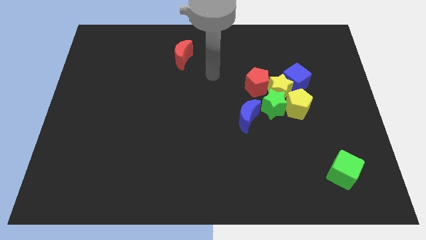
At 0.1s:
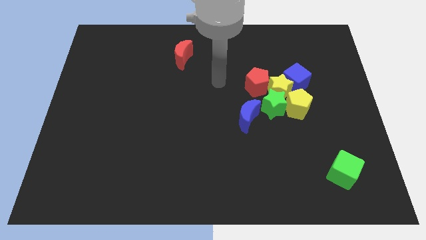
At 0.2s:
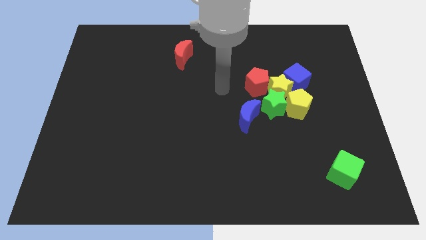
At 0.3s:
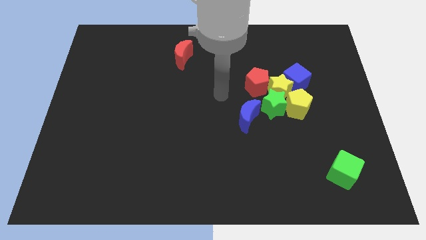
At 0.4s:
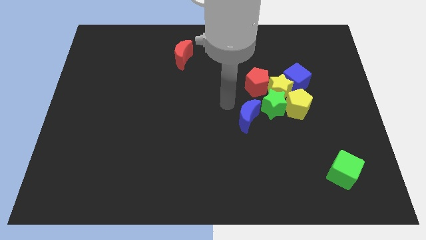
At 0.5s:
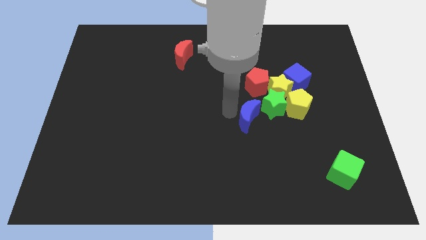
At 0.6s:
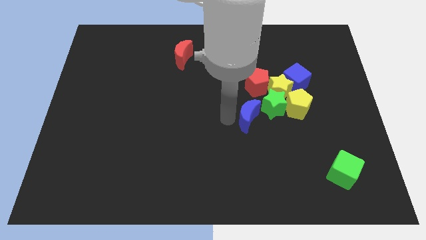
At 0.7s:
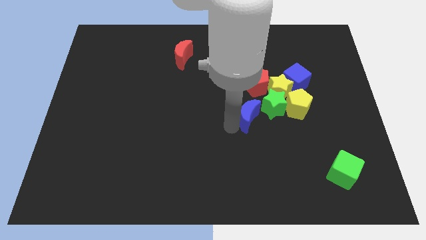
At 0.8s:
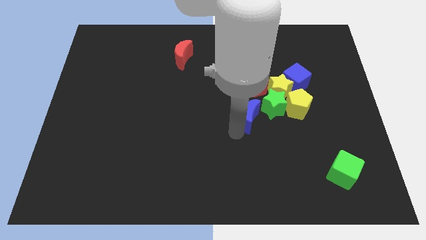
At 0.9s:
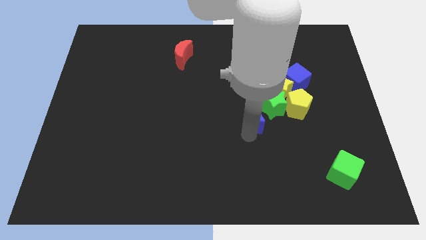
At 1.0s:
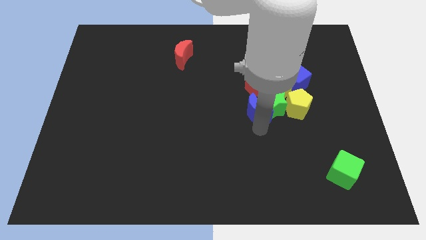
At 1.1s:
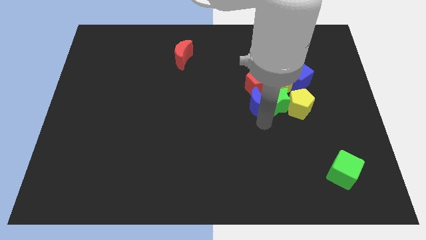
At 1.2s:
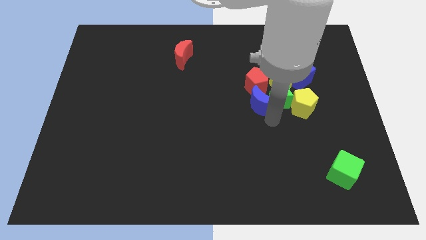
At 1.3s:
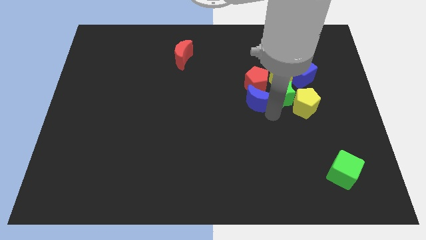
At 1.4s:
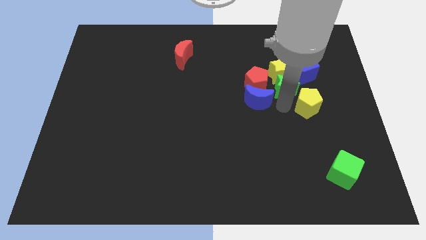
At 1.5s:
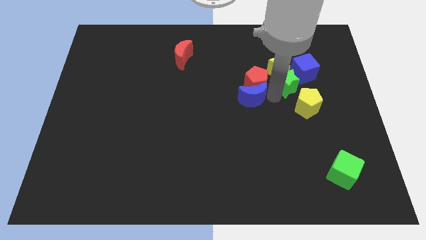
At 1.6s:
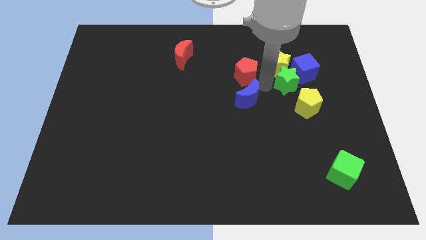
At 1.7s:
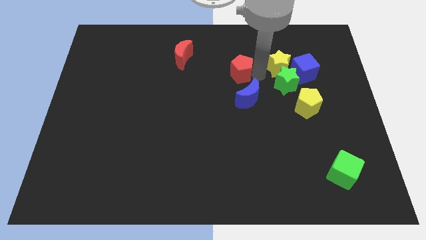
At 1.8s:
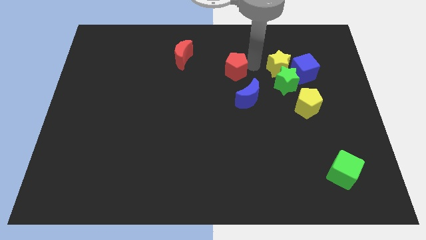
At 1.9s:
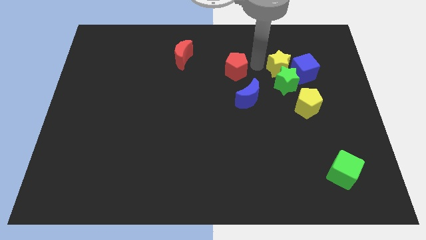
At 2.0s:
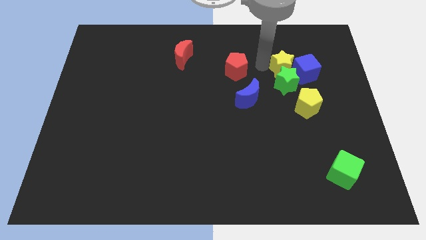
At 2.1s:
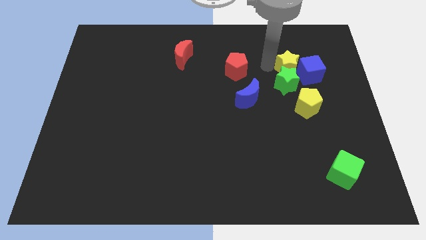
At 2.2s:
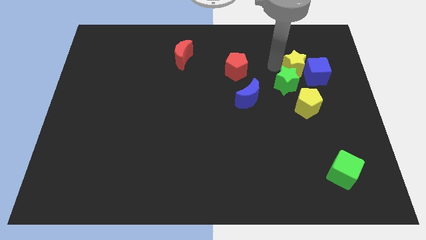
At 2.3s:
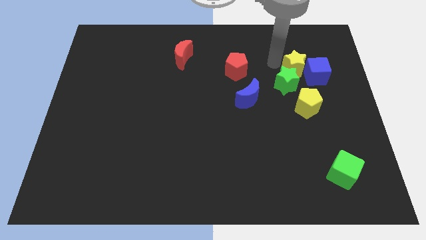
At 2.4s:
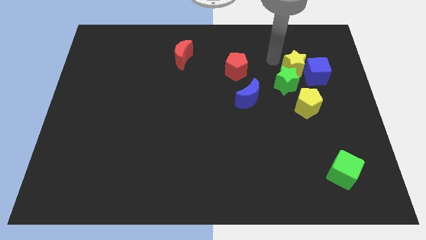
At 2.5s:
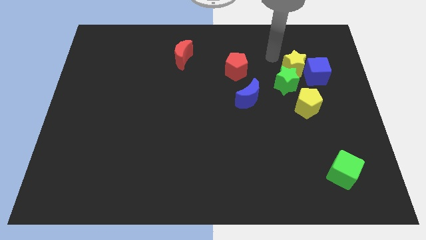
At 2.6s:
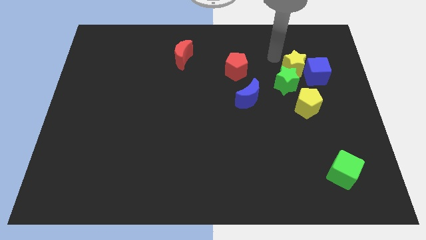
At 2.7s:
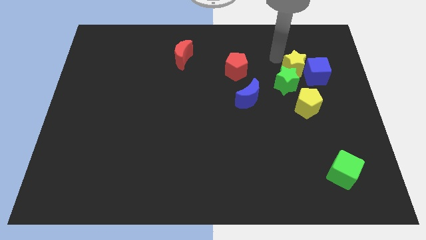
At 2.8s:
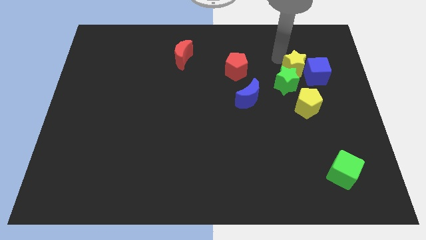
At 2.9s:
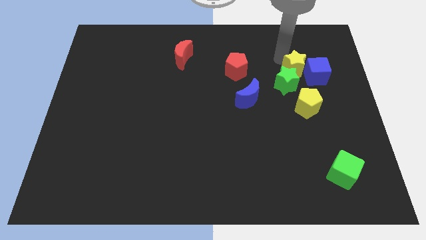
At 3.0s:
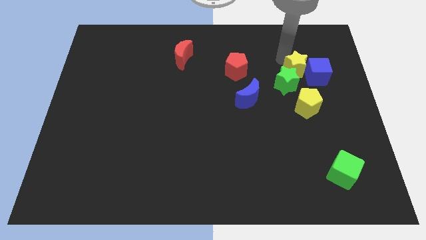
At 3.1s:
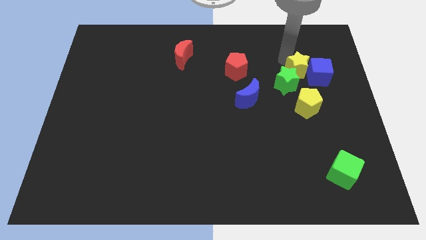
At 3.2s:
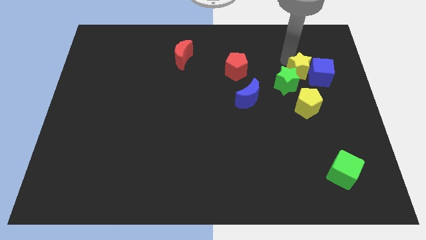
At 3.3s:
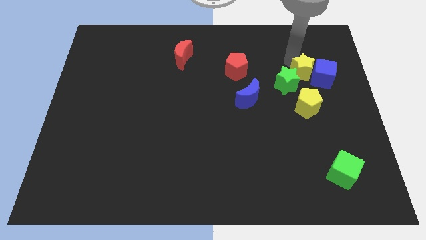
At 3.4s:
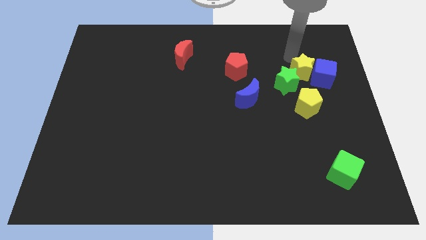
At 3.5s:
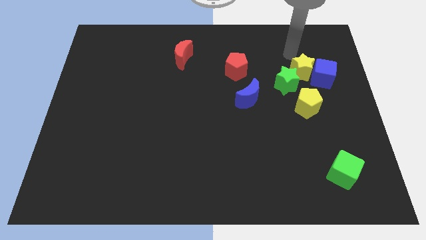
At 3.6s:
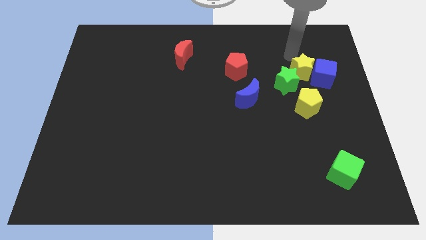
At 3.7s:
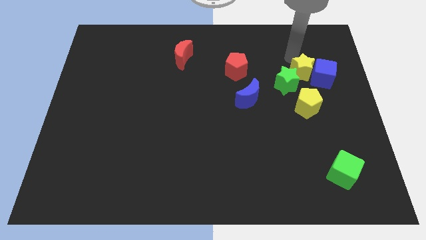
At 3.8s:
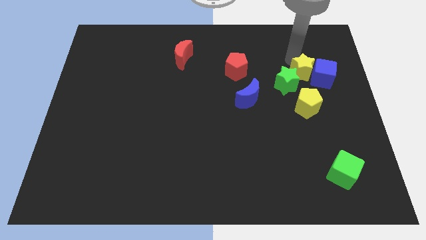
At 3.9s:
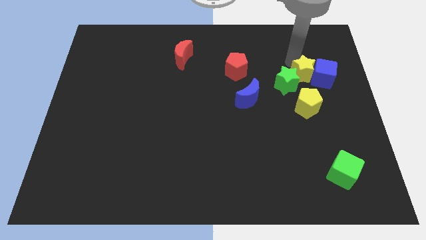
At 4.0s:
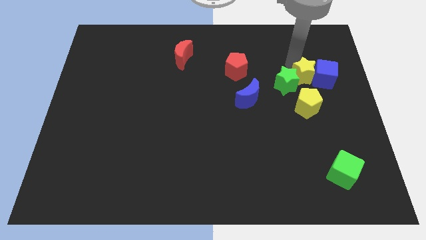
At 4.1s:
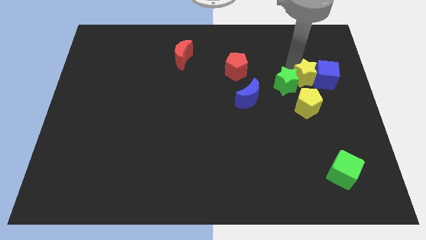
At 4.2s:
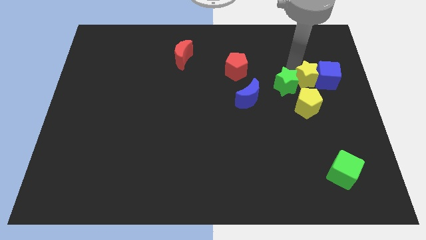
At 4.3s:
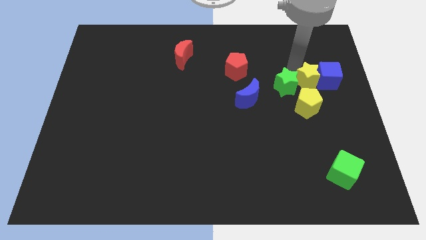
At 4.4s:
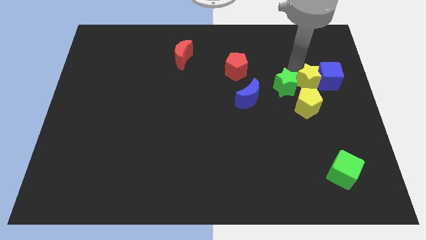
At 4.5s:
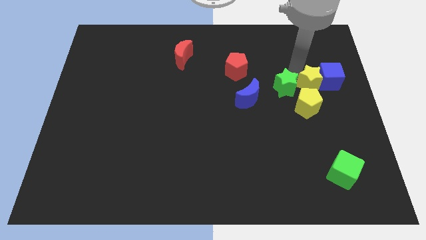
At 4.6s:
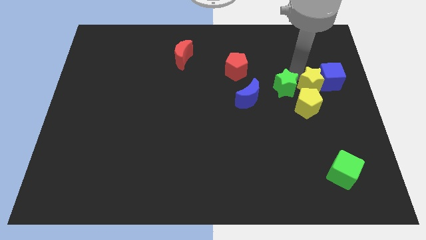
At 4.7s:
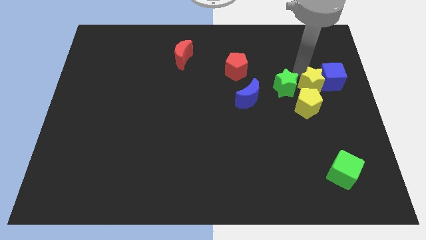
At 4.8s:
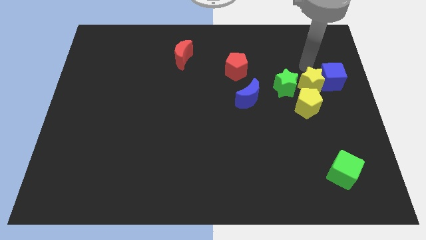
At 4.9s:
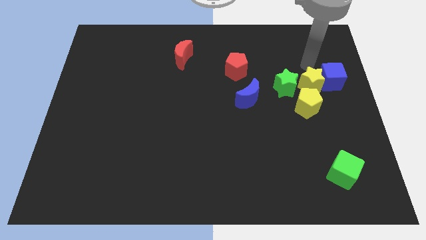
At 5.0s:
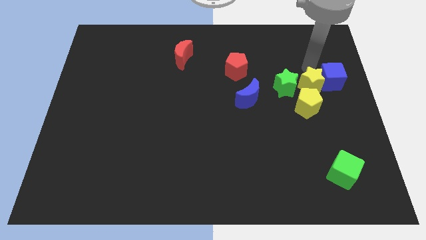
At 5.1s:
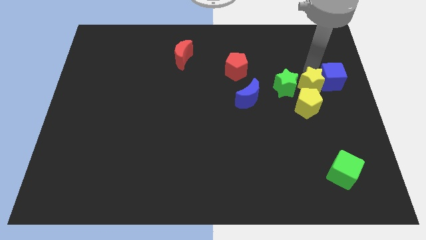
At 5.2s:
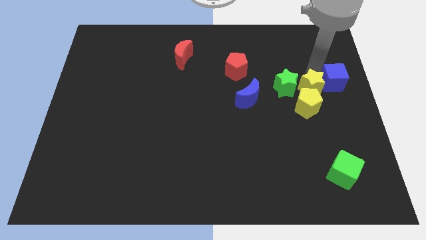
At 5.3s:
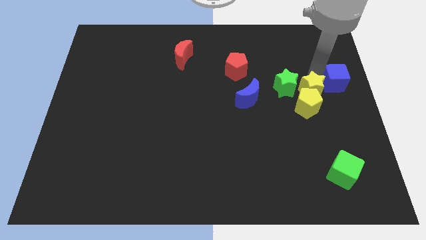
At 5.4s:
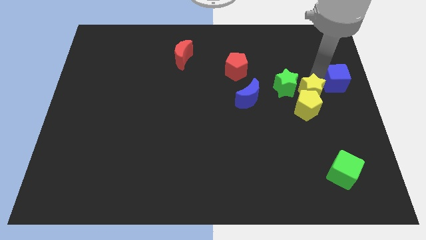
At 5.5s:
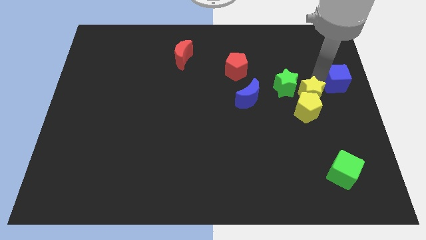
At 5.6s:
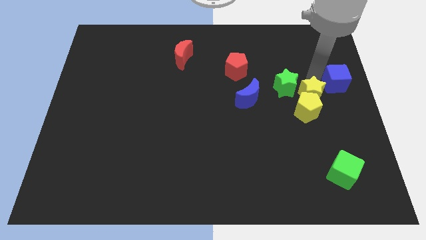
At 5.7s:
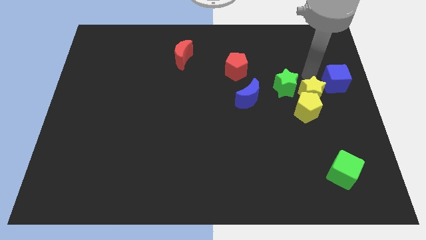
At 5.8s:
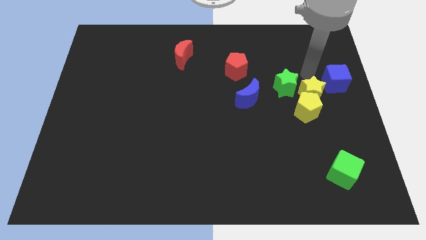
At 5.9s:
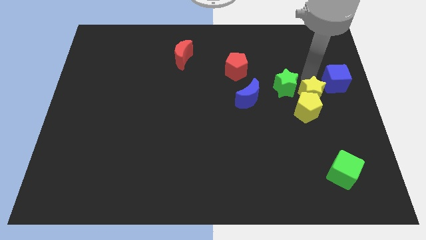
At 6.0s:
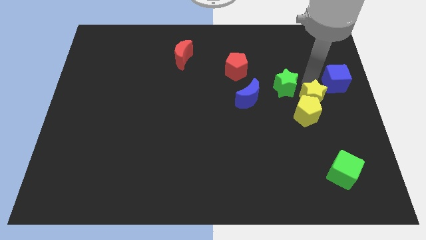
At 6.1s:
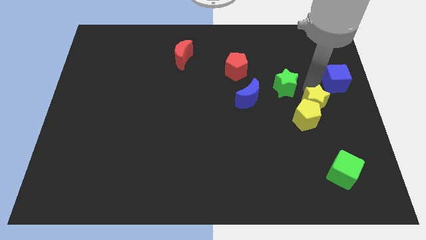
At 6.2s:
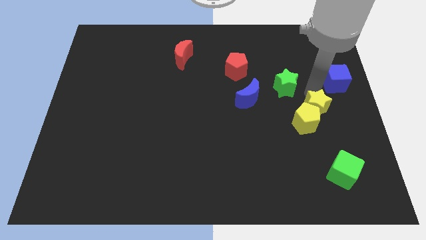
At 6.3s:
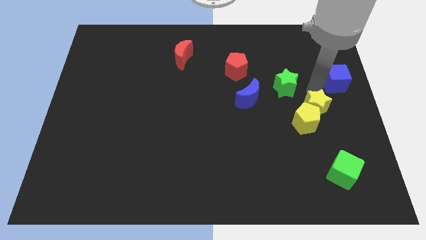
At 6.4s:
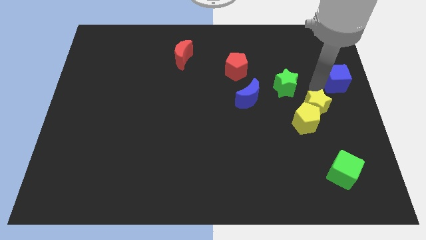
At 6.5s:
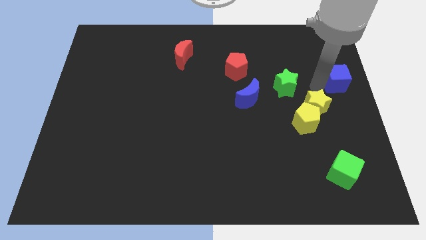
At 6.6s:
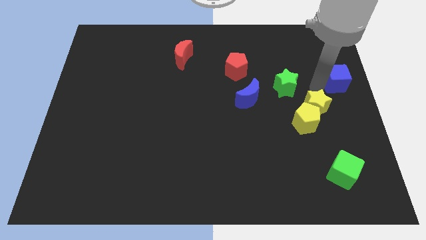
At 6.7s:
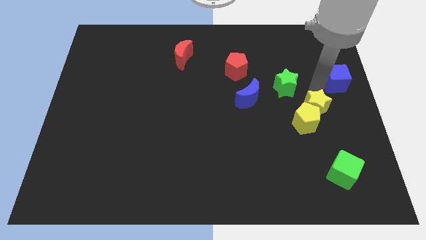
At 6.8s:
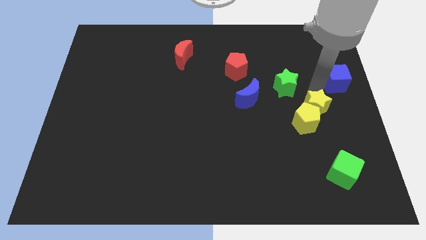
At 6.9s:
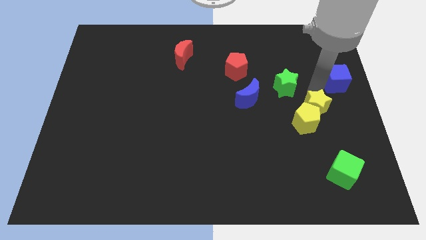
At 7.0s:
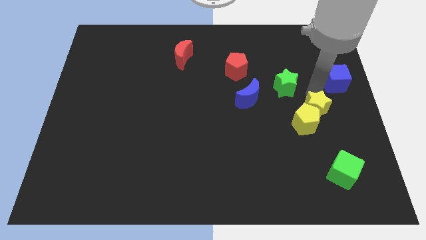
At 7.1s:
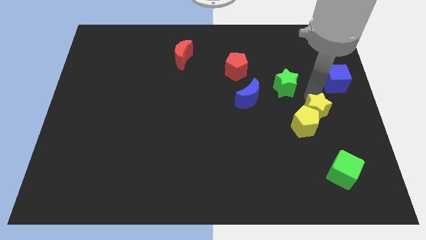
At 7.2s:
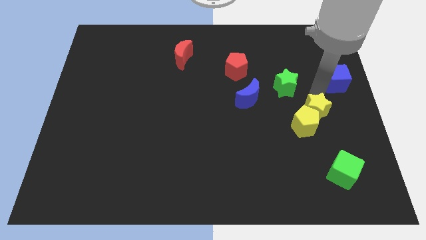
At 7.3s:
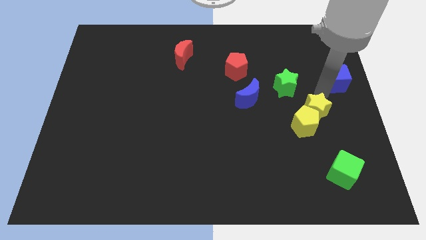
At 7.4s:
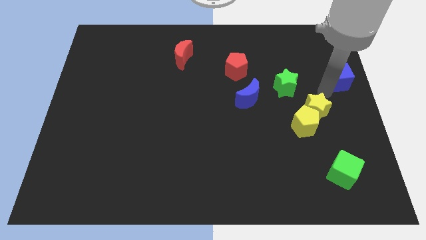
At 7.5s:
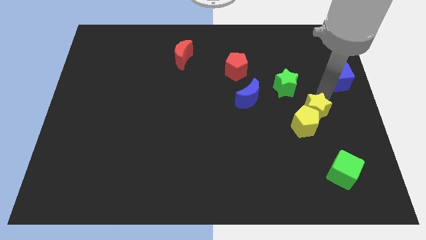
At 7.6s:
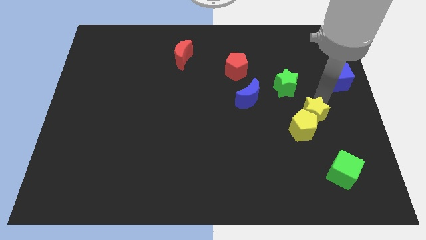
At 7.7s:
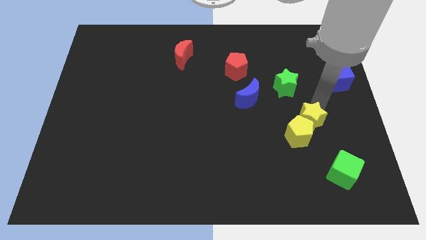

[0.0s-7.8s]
slide the yellow star a bit downwards
